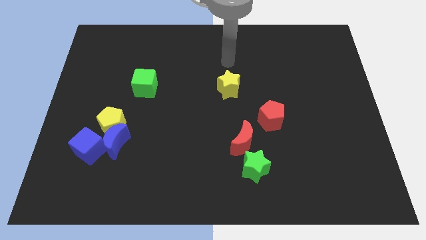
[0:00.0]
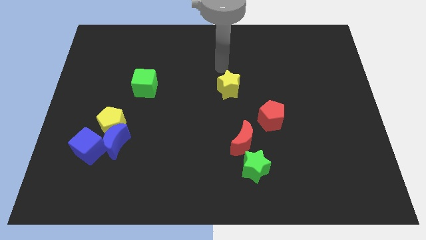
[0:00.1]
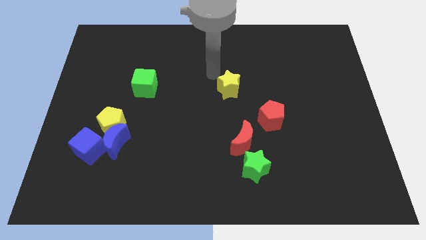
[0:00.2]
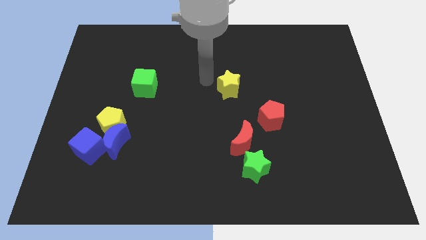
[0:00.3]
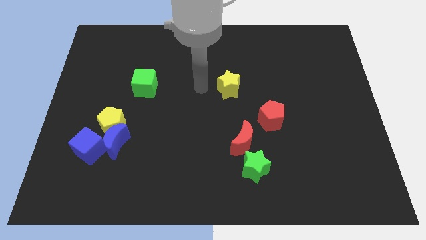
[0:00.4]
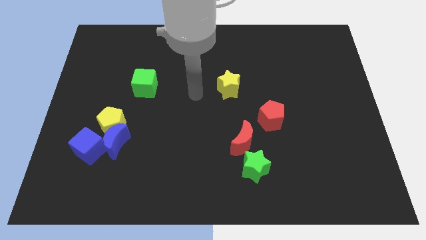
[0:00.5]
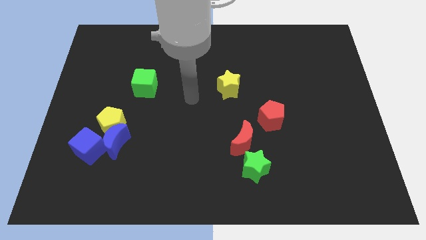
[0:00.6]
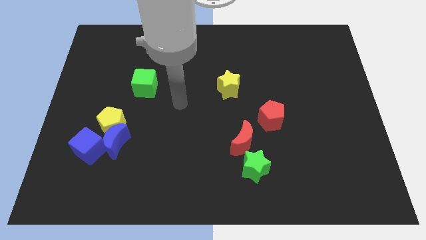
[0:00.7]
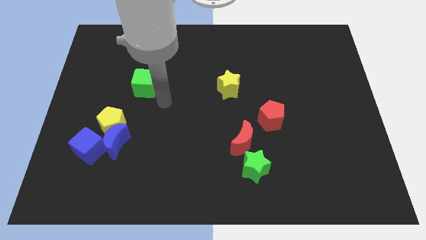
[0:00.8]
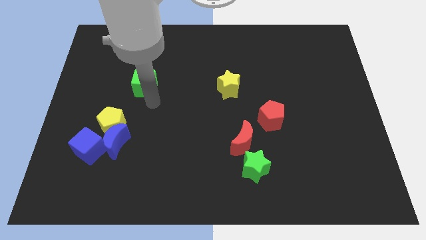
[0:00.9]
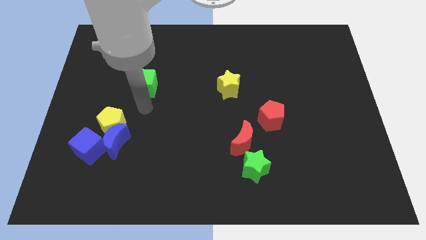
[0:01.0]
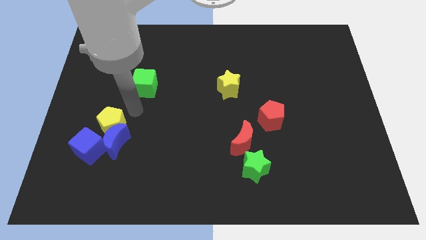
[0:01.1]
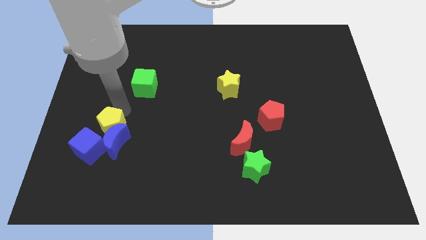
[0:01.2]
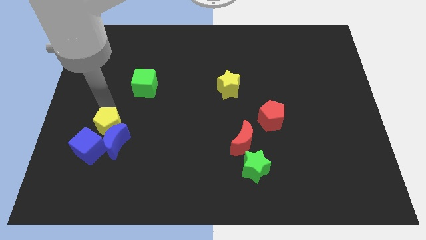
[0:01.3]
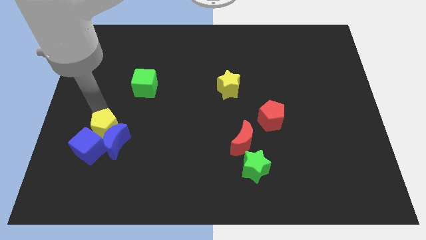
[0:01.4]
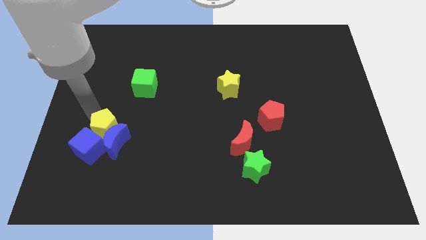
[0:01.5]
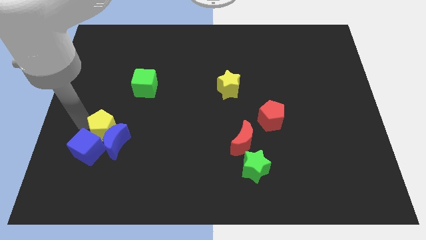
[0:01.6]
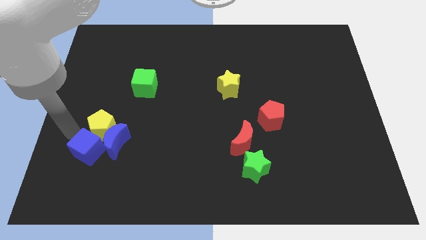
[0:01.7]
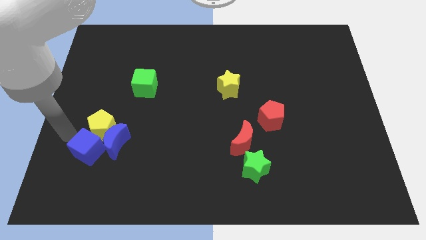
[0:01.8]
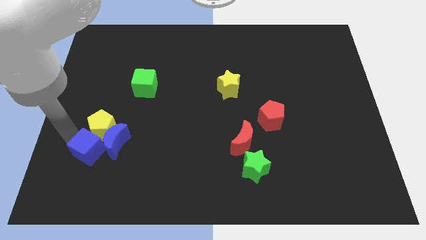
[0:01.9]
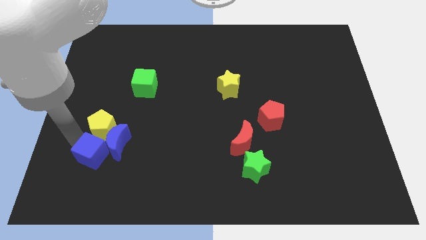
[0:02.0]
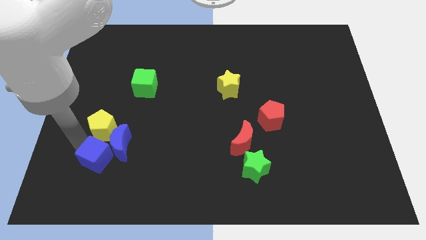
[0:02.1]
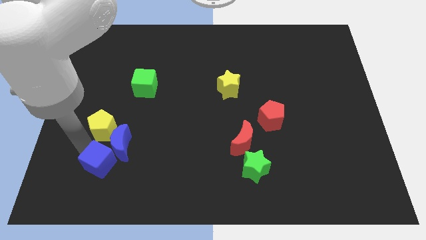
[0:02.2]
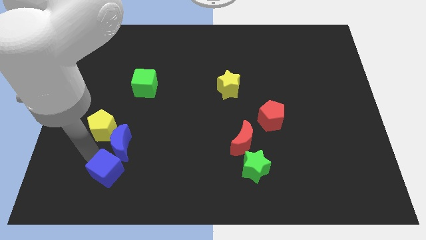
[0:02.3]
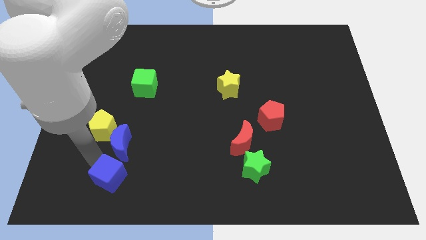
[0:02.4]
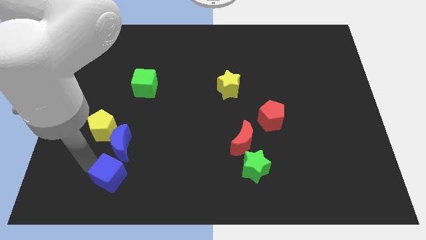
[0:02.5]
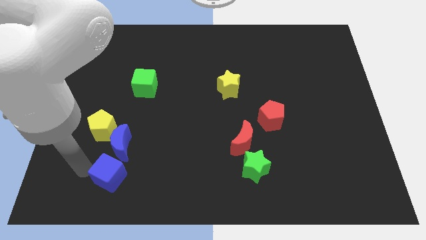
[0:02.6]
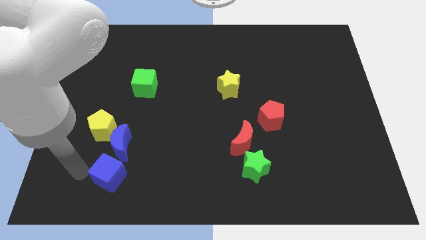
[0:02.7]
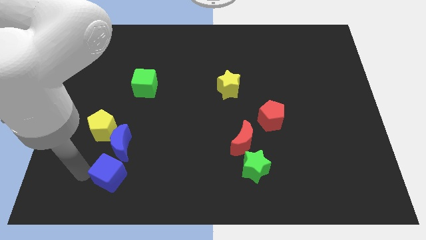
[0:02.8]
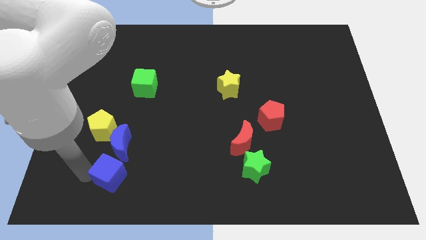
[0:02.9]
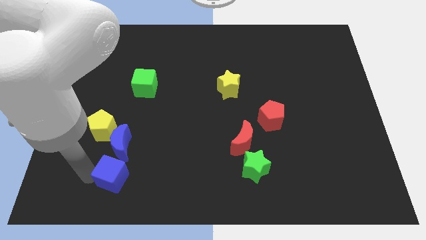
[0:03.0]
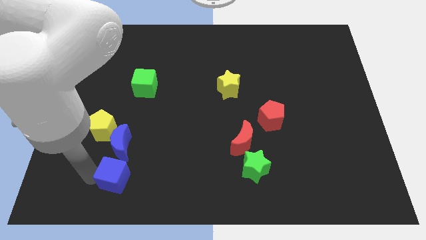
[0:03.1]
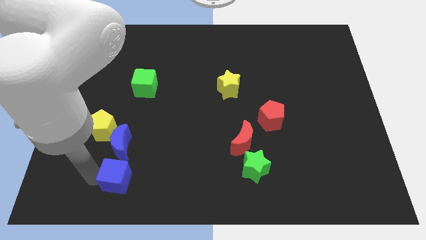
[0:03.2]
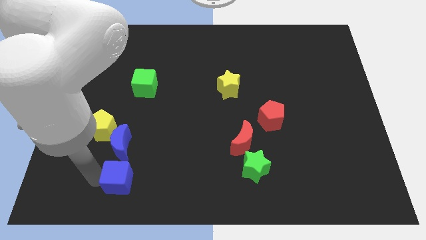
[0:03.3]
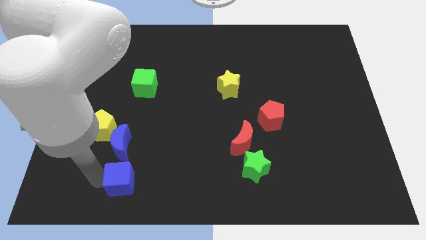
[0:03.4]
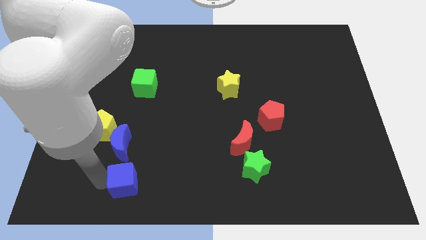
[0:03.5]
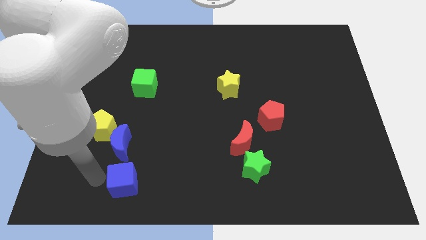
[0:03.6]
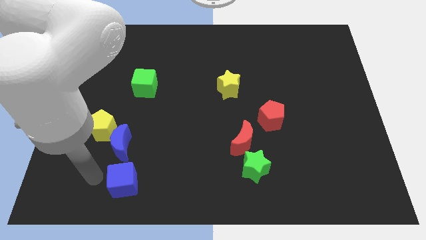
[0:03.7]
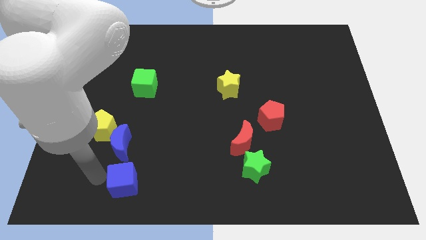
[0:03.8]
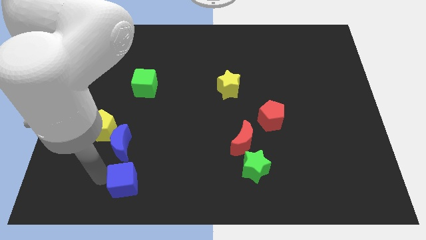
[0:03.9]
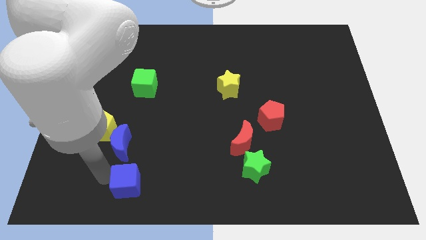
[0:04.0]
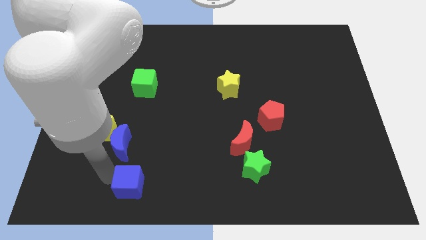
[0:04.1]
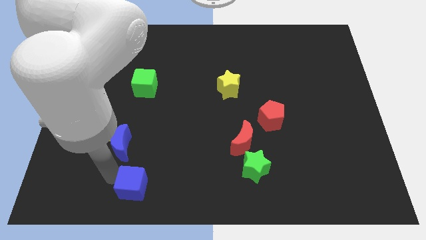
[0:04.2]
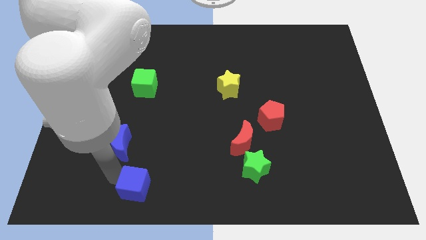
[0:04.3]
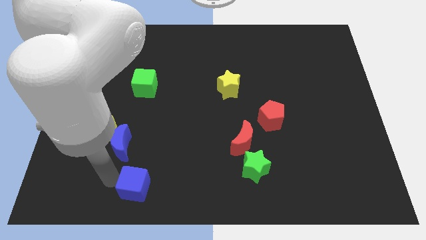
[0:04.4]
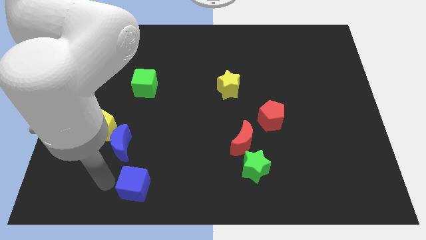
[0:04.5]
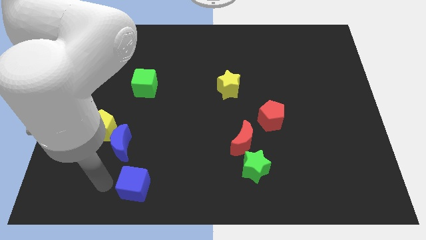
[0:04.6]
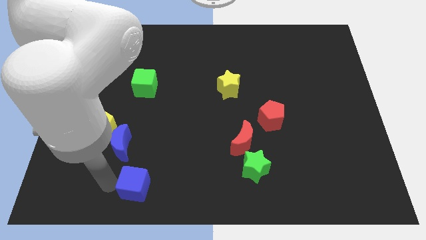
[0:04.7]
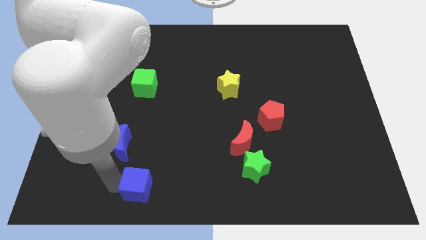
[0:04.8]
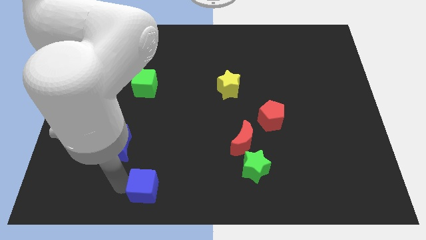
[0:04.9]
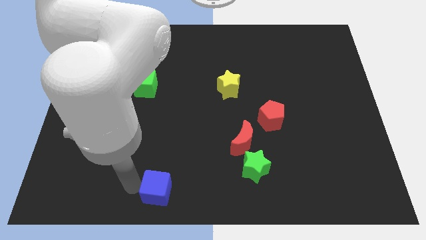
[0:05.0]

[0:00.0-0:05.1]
put the blue cube to the bottom side

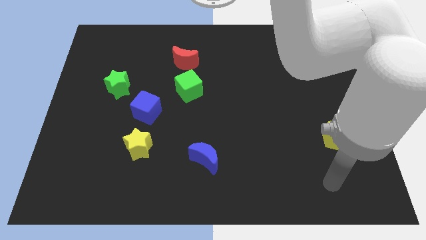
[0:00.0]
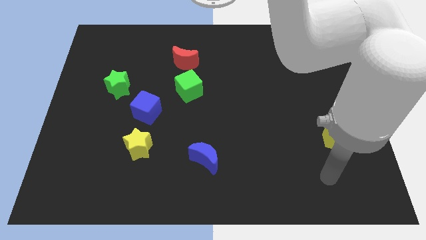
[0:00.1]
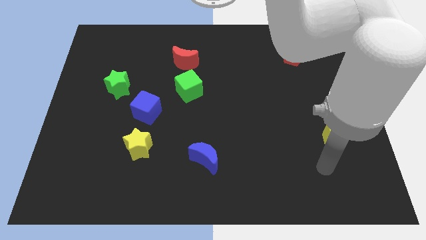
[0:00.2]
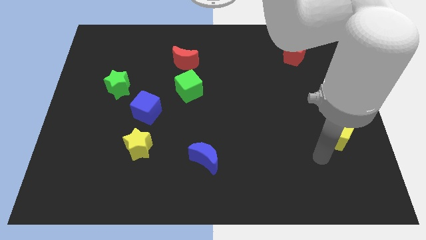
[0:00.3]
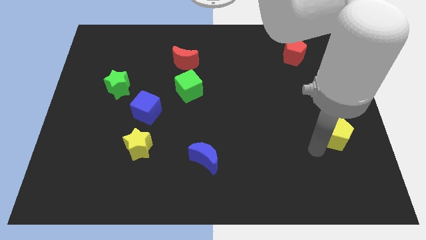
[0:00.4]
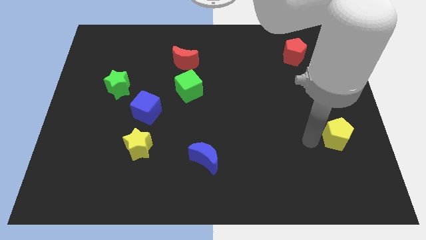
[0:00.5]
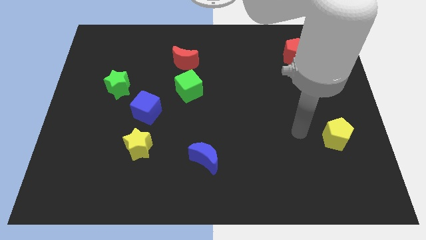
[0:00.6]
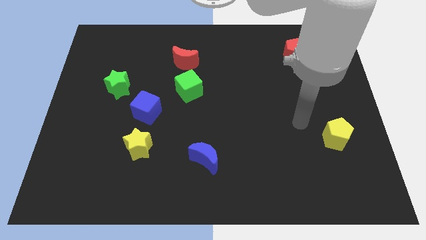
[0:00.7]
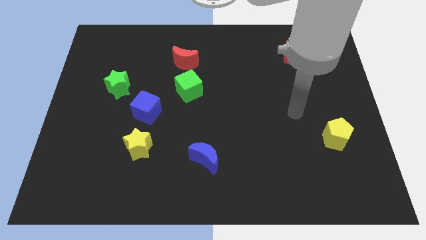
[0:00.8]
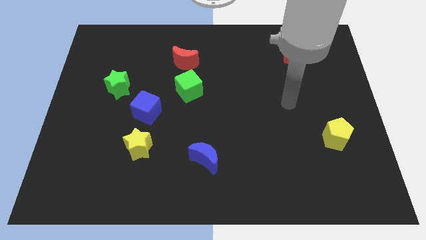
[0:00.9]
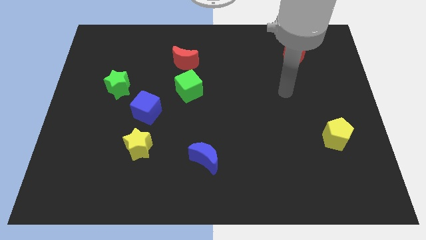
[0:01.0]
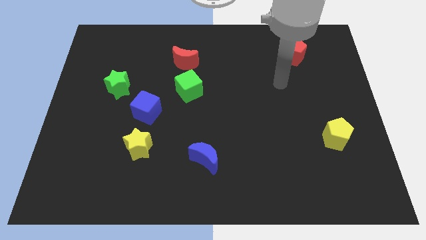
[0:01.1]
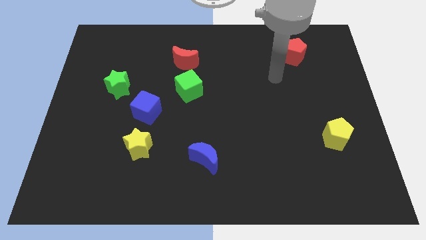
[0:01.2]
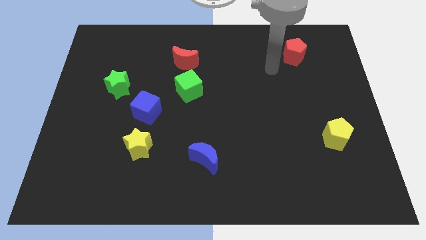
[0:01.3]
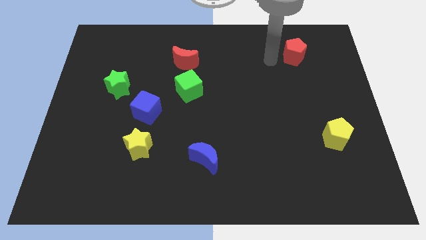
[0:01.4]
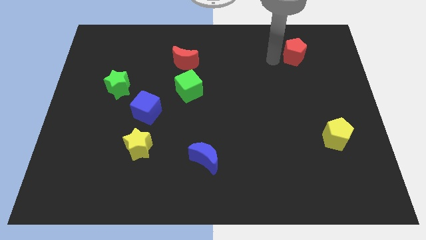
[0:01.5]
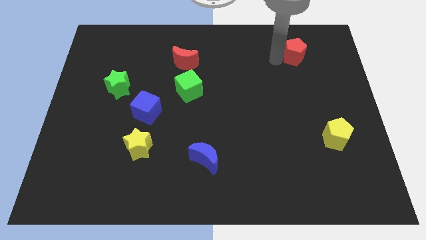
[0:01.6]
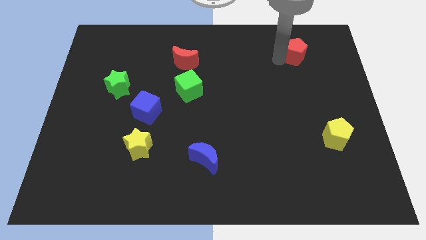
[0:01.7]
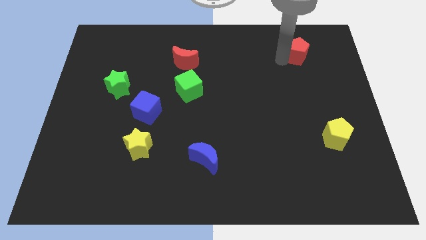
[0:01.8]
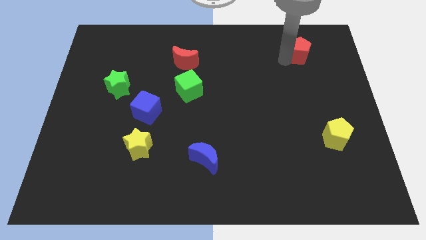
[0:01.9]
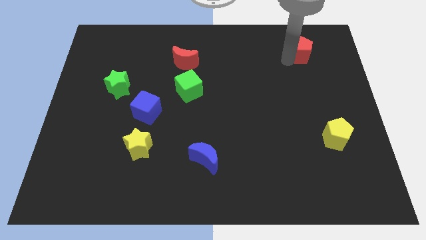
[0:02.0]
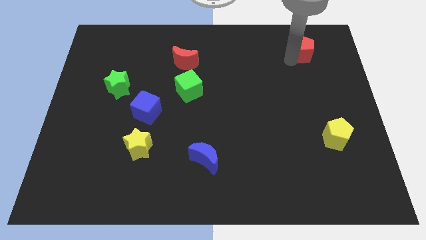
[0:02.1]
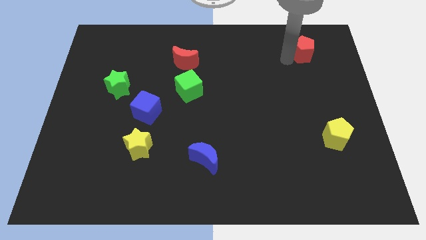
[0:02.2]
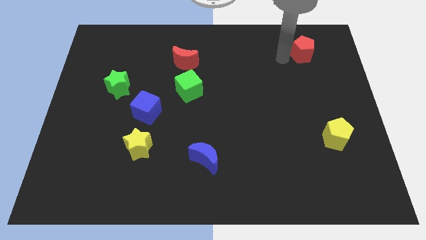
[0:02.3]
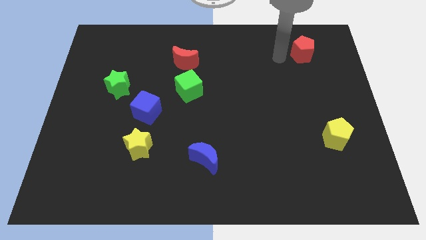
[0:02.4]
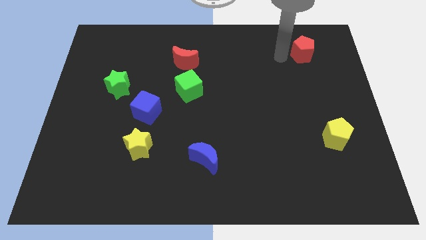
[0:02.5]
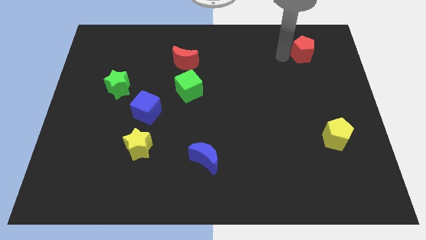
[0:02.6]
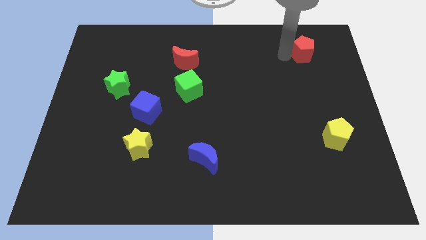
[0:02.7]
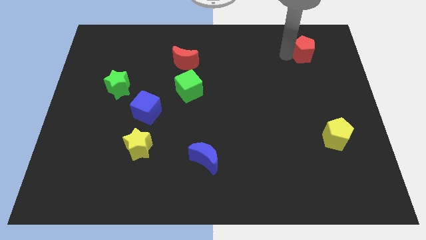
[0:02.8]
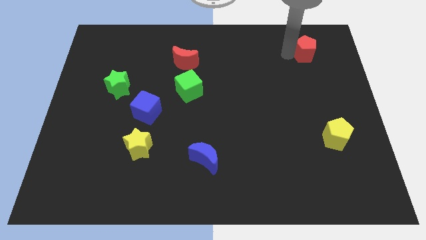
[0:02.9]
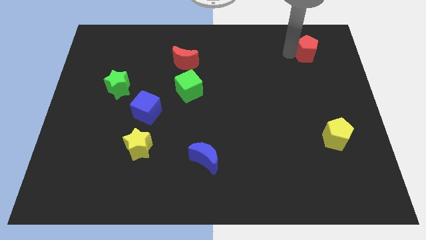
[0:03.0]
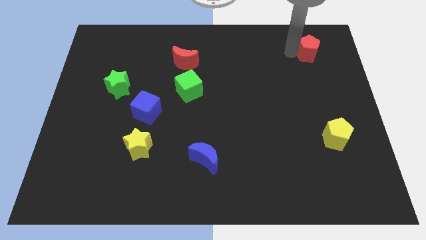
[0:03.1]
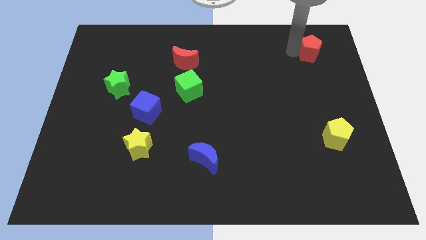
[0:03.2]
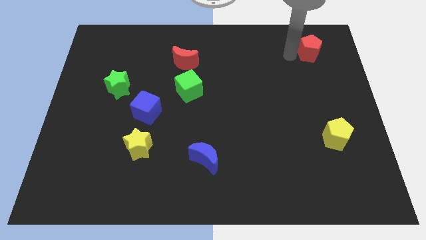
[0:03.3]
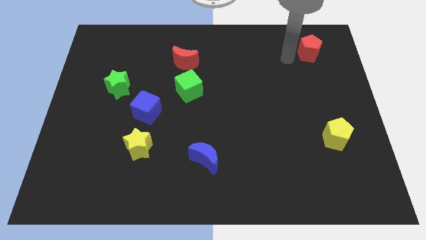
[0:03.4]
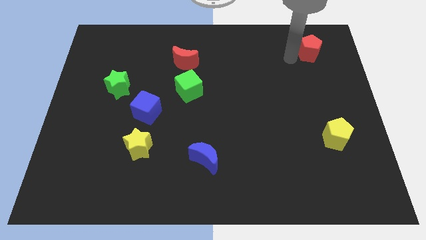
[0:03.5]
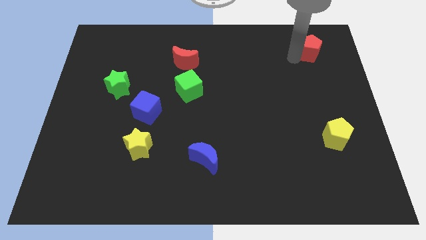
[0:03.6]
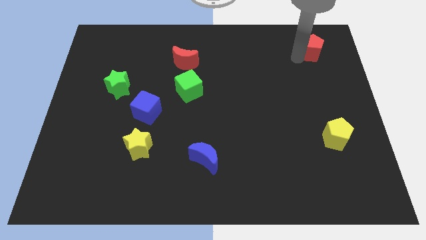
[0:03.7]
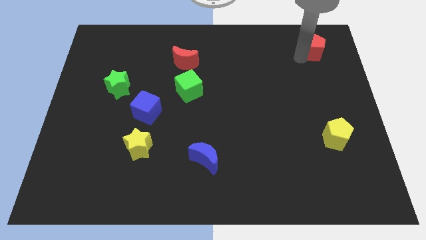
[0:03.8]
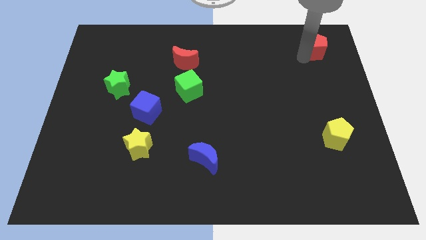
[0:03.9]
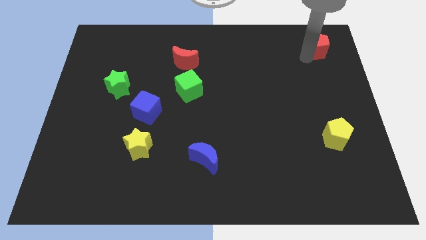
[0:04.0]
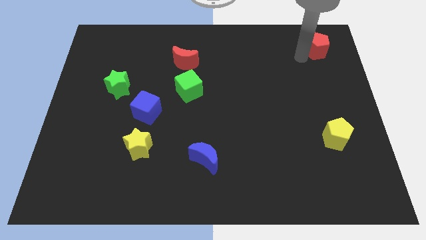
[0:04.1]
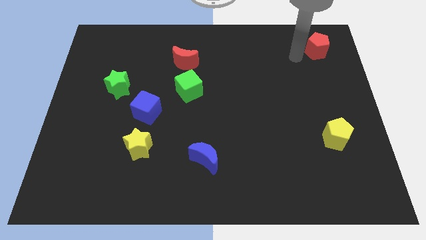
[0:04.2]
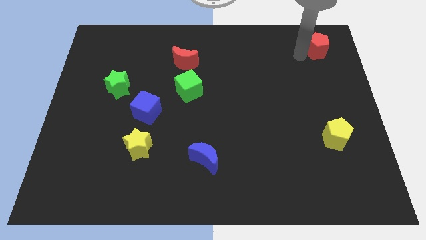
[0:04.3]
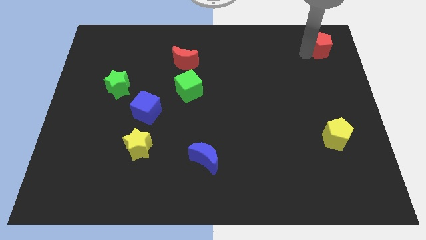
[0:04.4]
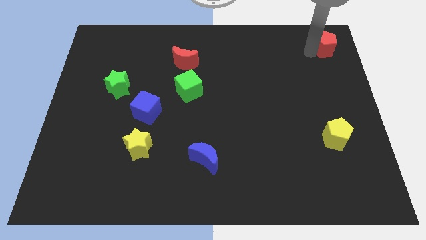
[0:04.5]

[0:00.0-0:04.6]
move the red pentagon to the upper right corner
